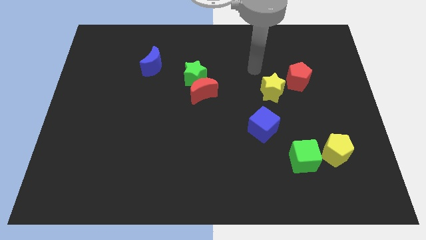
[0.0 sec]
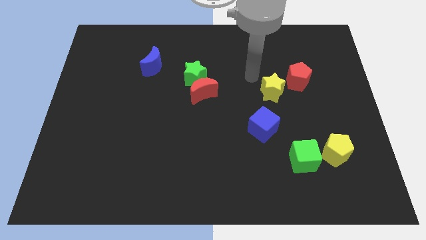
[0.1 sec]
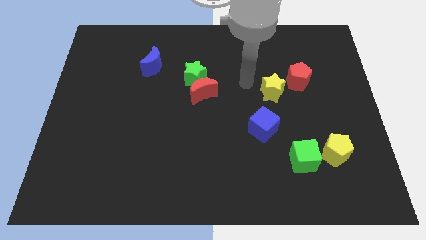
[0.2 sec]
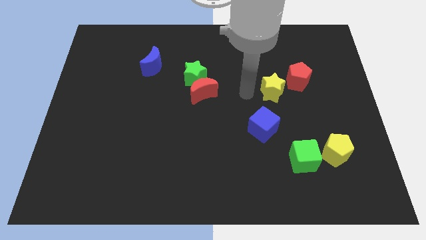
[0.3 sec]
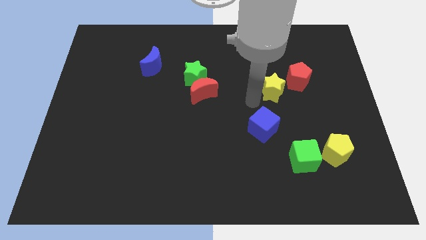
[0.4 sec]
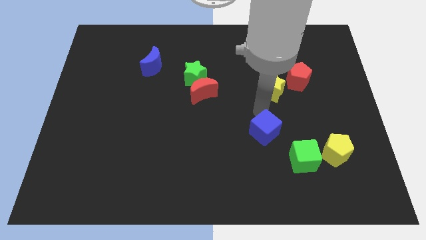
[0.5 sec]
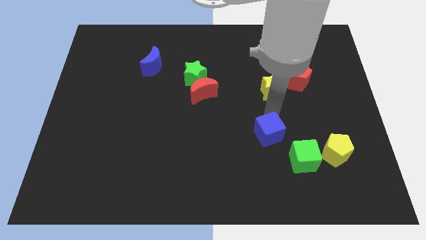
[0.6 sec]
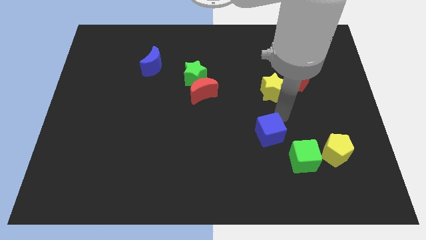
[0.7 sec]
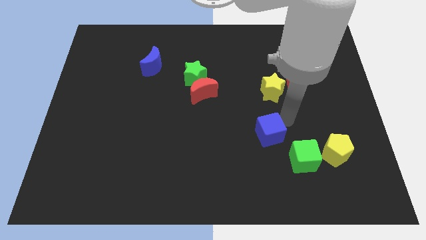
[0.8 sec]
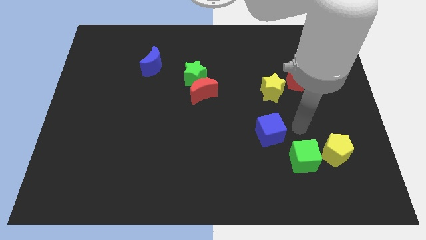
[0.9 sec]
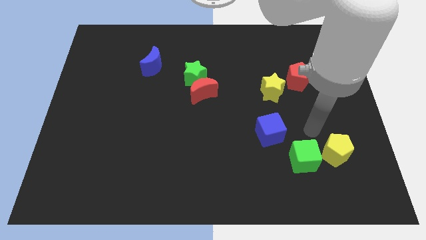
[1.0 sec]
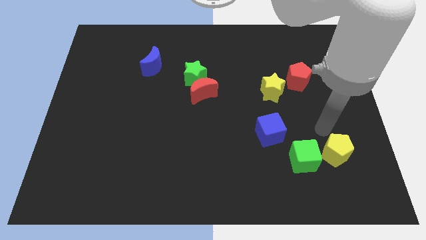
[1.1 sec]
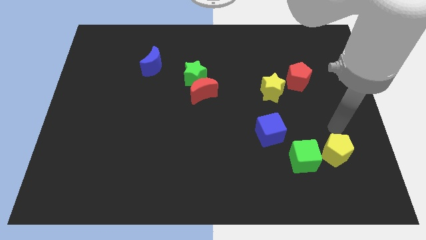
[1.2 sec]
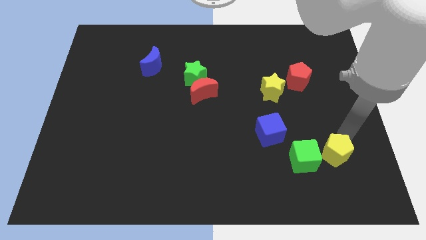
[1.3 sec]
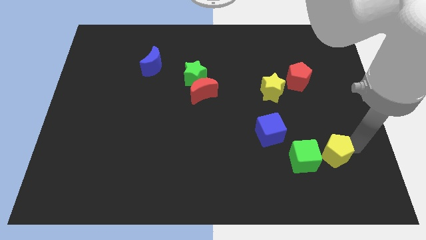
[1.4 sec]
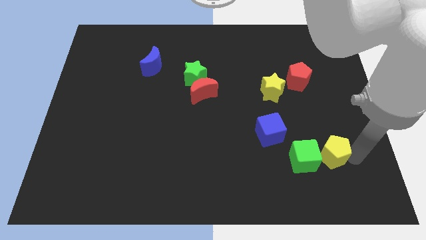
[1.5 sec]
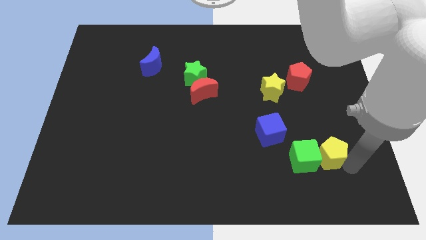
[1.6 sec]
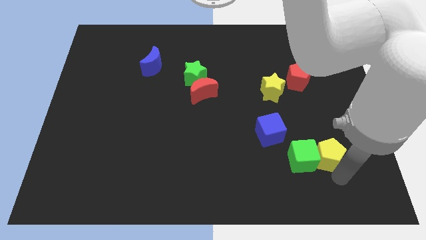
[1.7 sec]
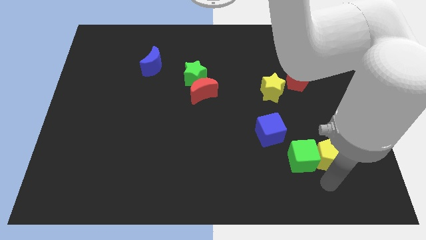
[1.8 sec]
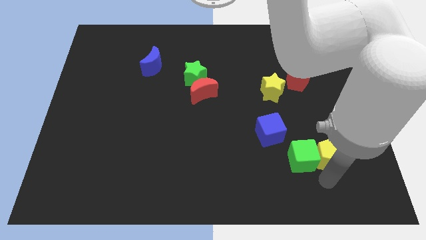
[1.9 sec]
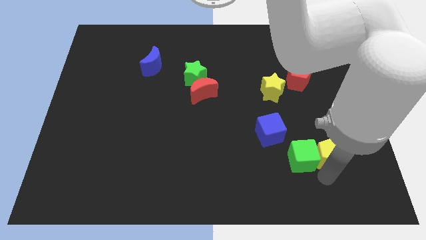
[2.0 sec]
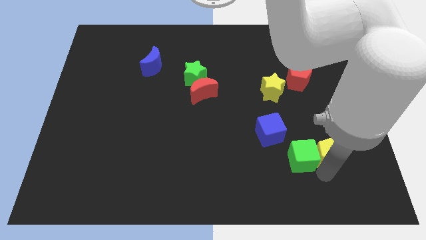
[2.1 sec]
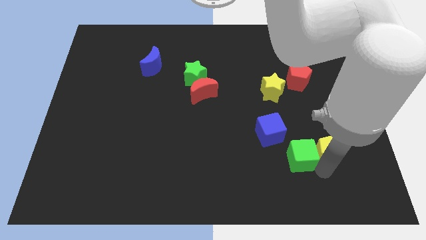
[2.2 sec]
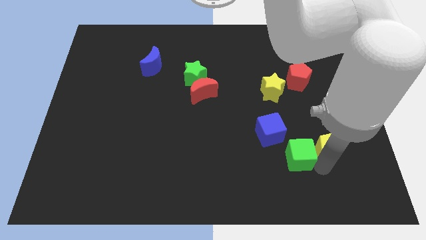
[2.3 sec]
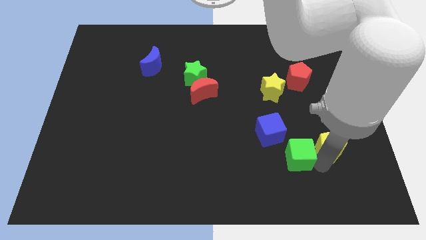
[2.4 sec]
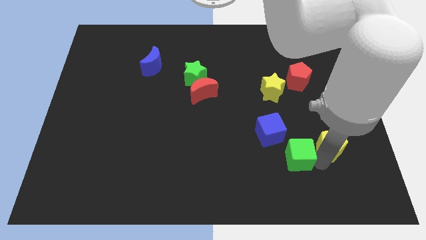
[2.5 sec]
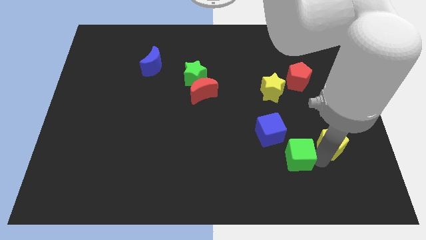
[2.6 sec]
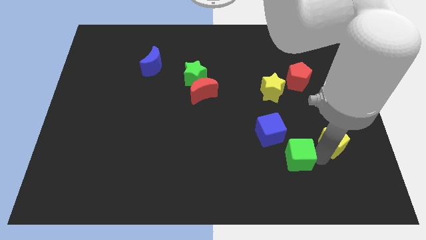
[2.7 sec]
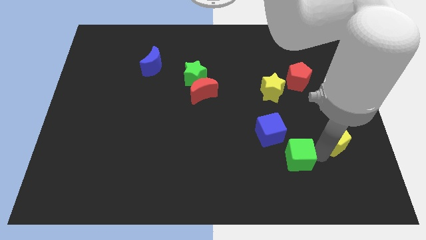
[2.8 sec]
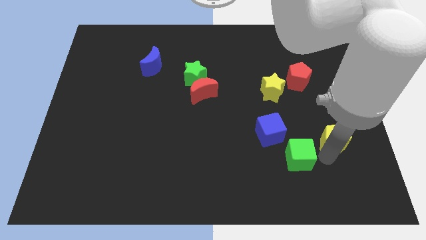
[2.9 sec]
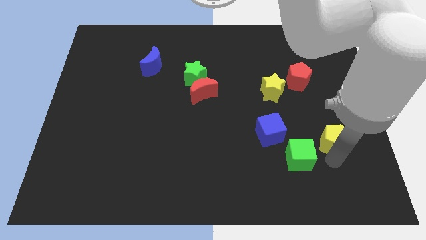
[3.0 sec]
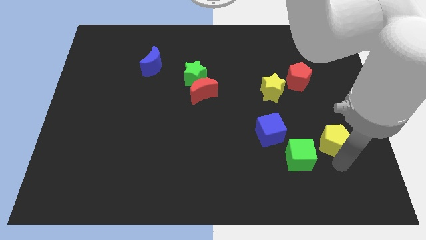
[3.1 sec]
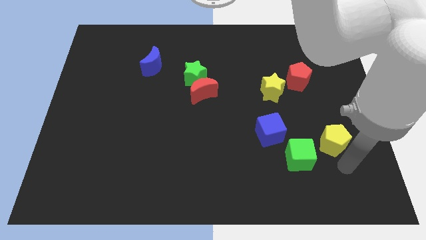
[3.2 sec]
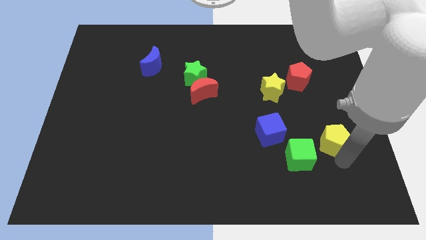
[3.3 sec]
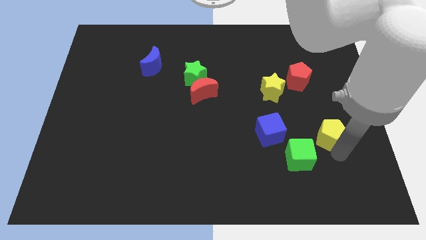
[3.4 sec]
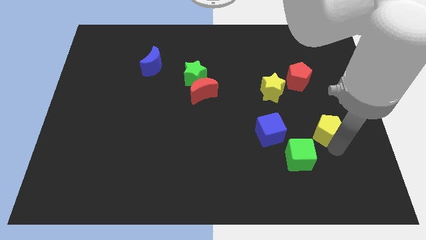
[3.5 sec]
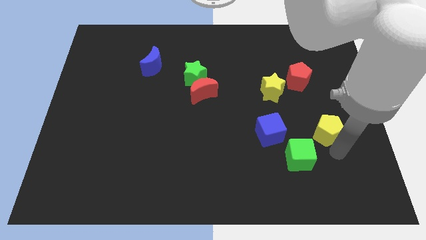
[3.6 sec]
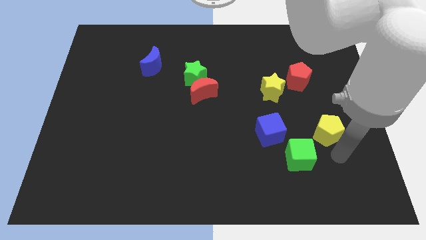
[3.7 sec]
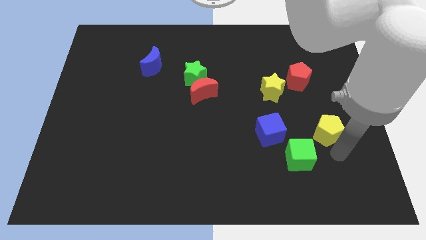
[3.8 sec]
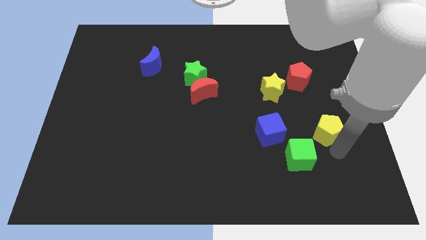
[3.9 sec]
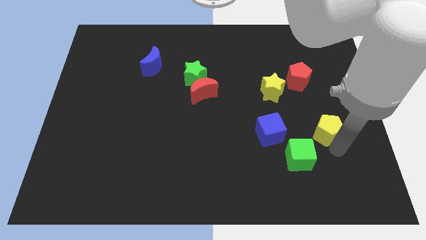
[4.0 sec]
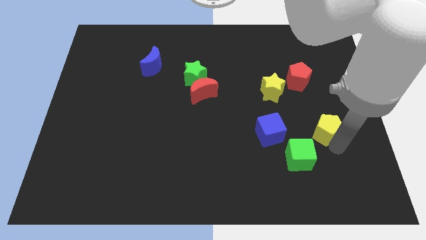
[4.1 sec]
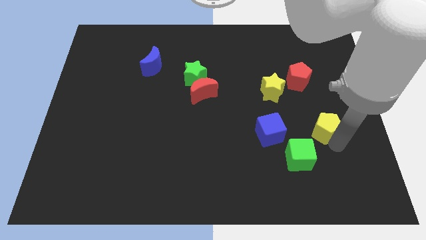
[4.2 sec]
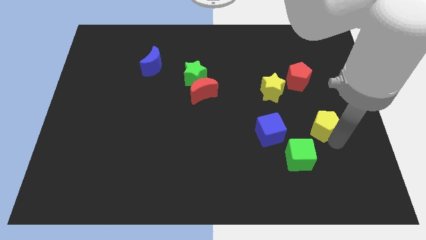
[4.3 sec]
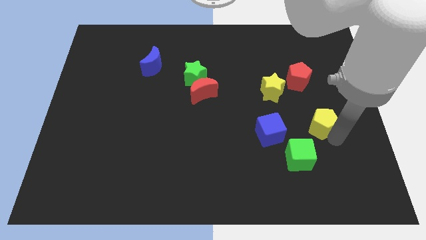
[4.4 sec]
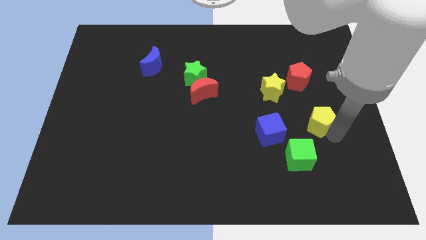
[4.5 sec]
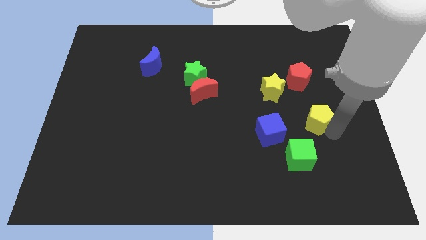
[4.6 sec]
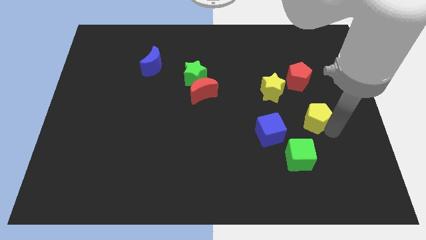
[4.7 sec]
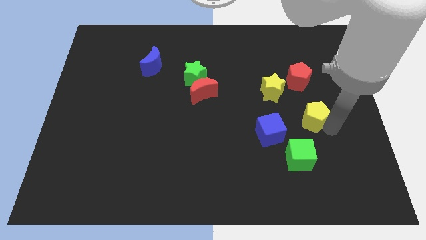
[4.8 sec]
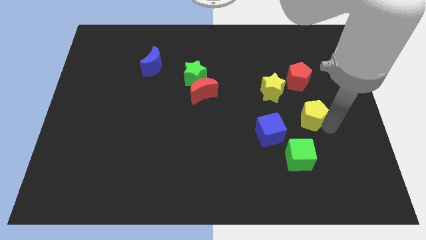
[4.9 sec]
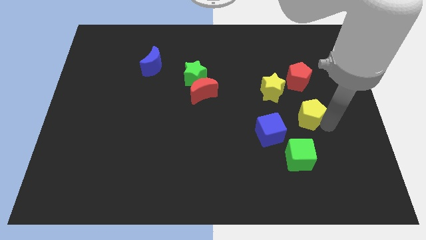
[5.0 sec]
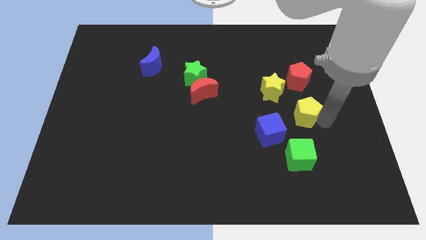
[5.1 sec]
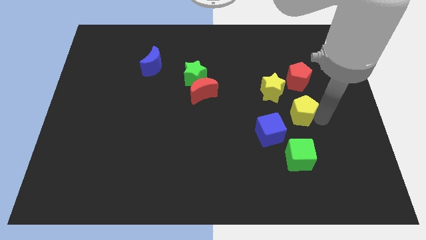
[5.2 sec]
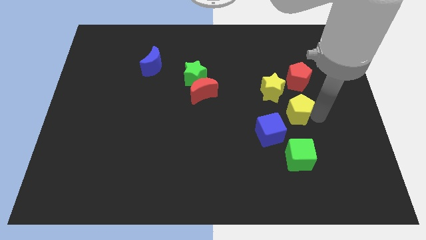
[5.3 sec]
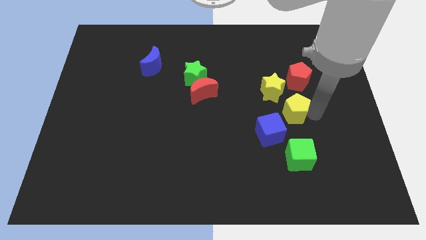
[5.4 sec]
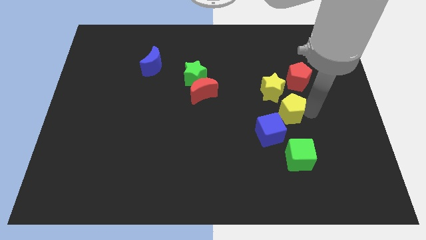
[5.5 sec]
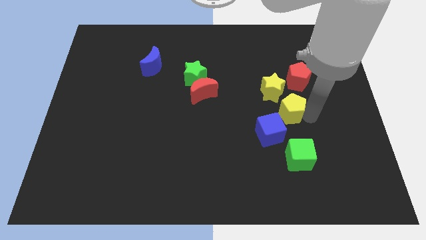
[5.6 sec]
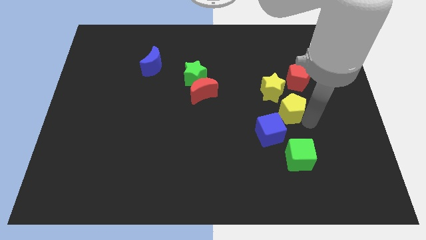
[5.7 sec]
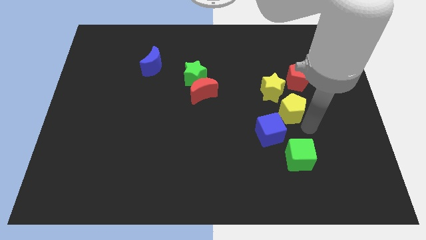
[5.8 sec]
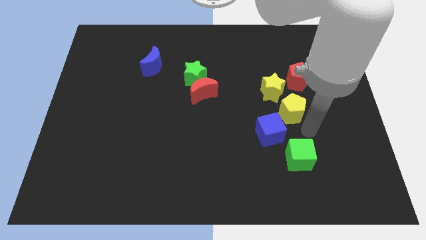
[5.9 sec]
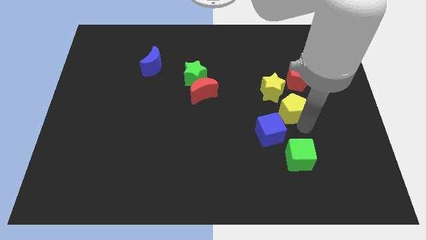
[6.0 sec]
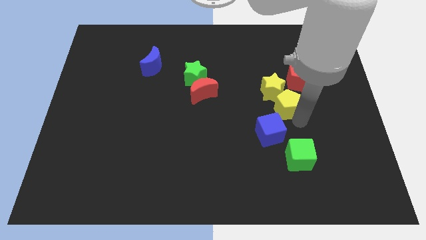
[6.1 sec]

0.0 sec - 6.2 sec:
put the yellow pentagon close to the yellow star

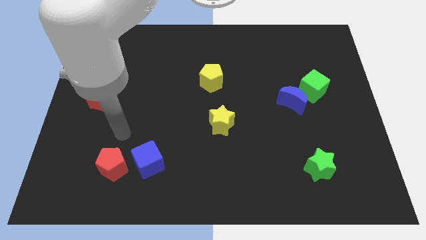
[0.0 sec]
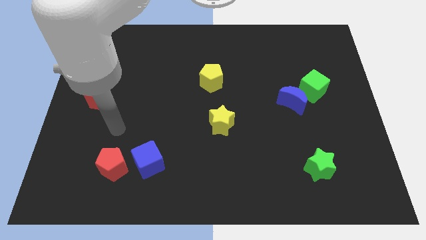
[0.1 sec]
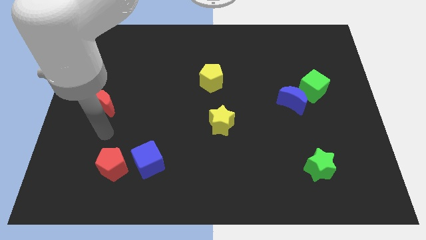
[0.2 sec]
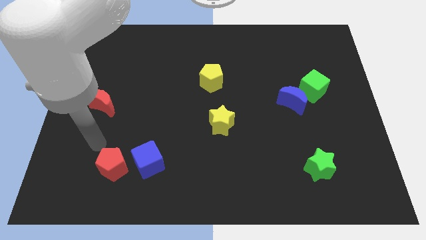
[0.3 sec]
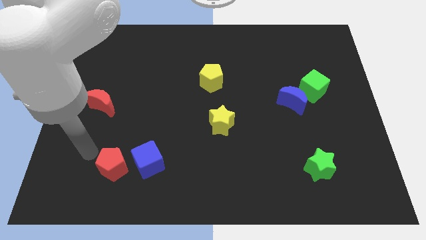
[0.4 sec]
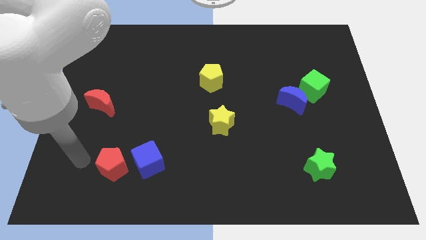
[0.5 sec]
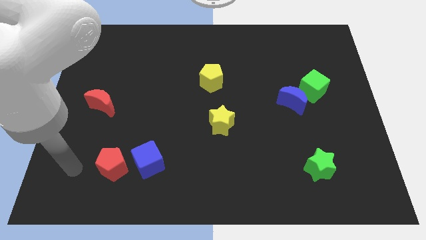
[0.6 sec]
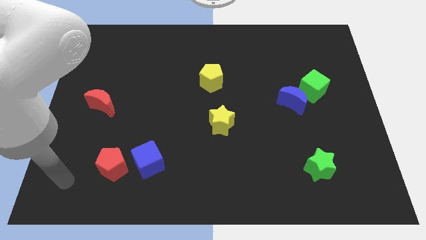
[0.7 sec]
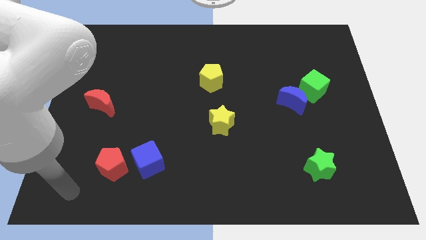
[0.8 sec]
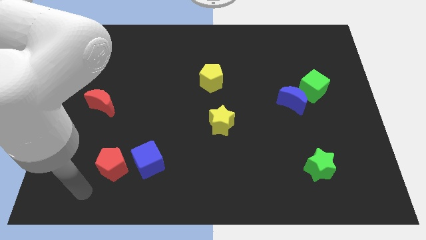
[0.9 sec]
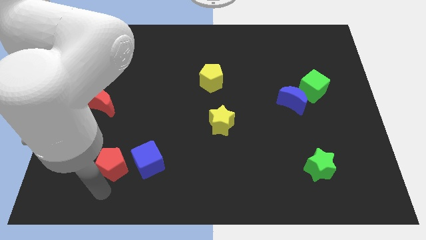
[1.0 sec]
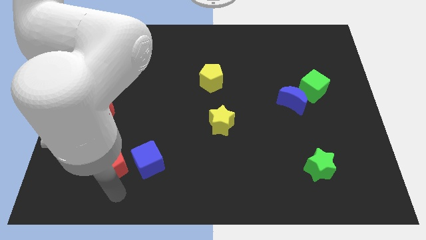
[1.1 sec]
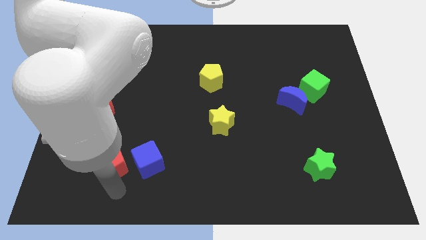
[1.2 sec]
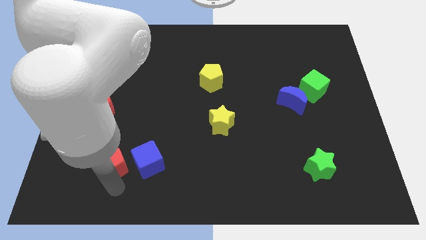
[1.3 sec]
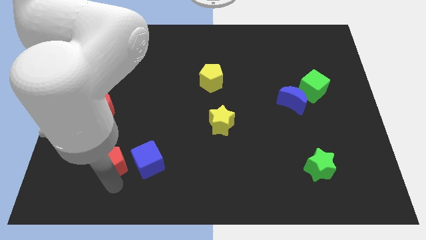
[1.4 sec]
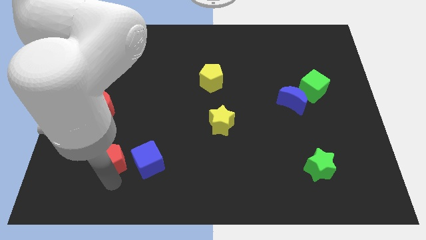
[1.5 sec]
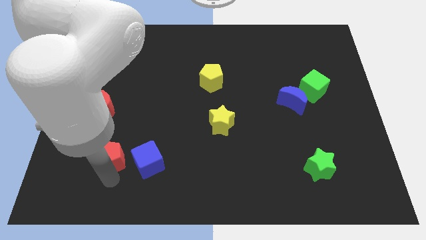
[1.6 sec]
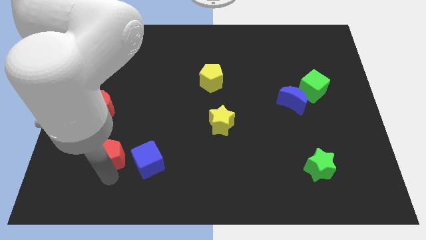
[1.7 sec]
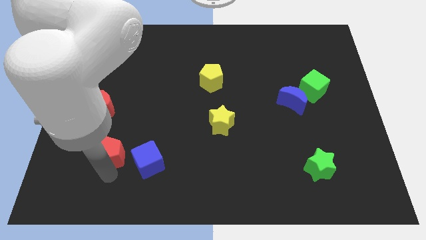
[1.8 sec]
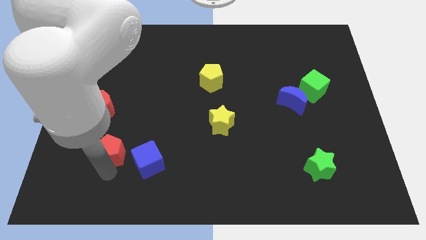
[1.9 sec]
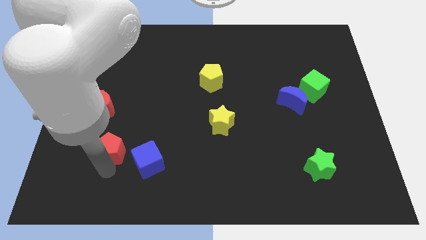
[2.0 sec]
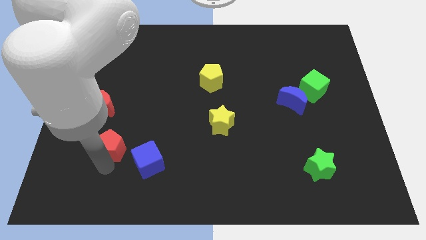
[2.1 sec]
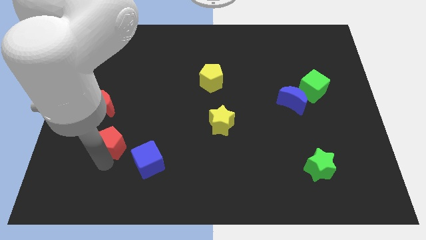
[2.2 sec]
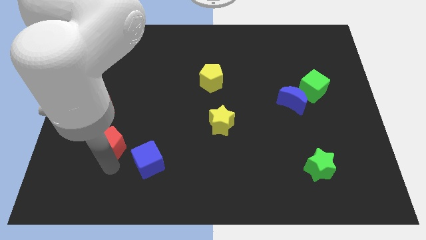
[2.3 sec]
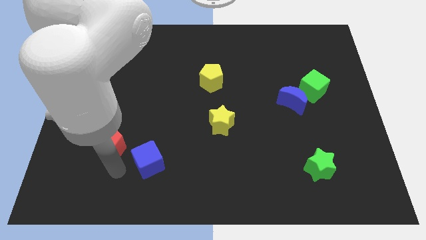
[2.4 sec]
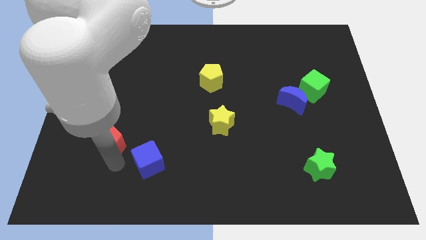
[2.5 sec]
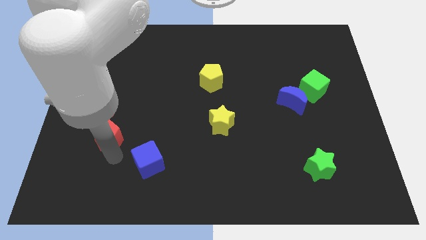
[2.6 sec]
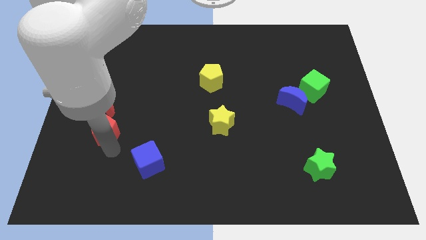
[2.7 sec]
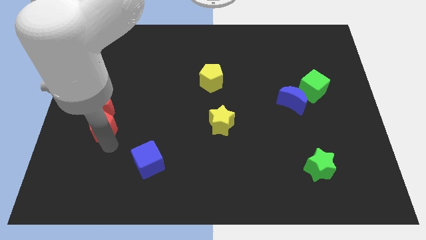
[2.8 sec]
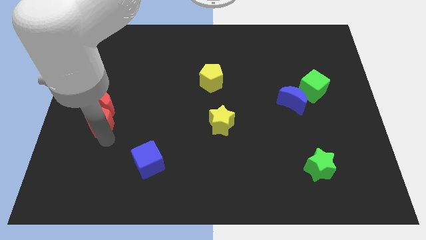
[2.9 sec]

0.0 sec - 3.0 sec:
slide the red pentagon to the red moon
